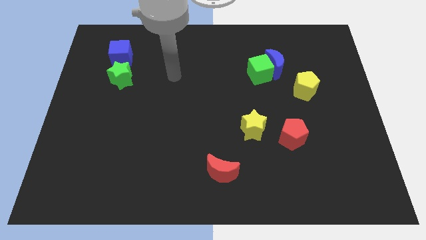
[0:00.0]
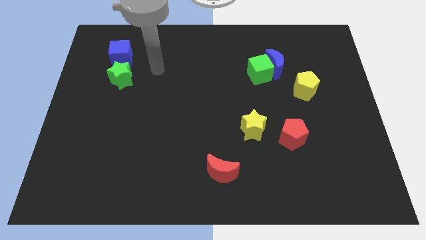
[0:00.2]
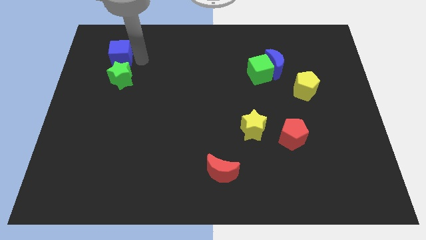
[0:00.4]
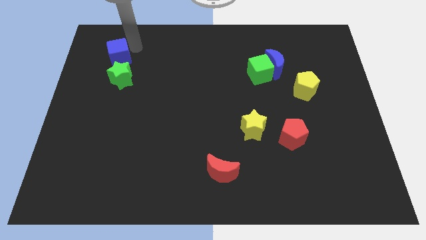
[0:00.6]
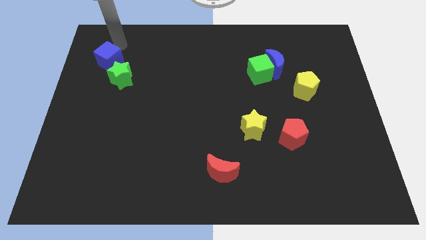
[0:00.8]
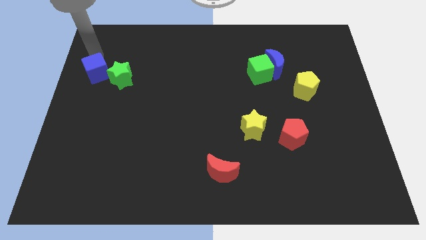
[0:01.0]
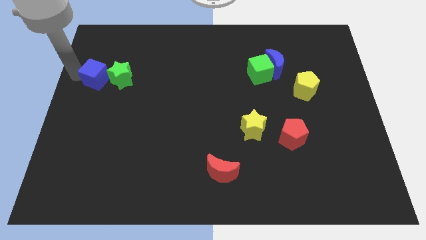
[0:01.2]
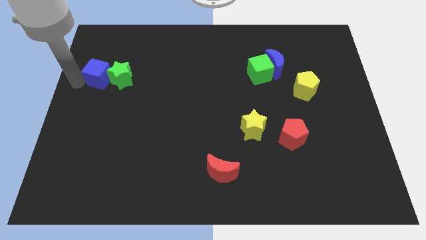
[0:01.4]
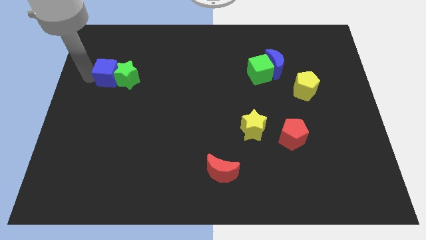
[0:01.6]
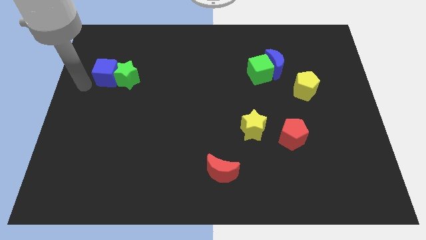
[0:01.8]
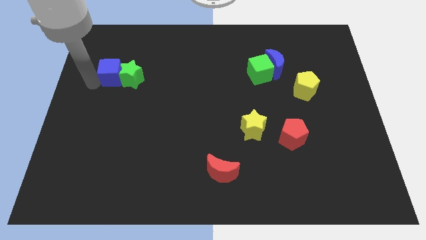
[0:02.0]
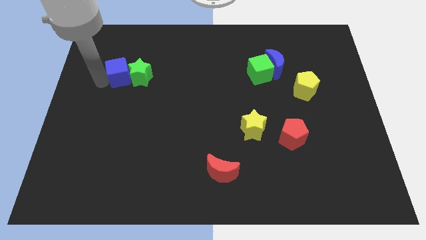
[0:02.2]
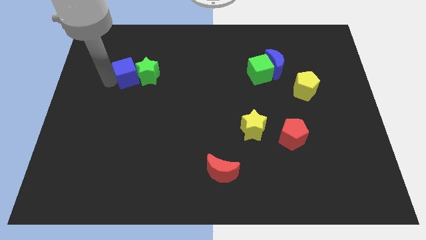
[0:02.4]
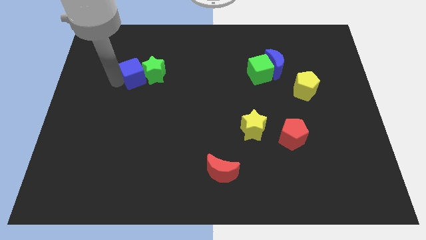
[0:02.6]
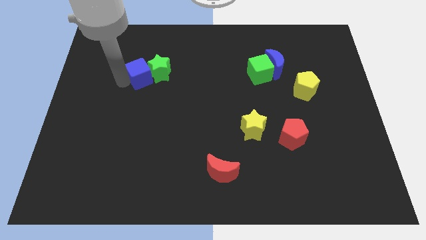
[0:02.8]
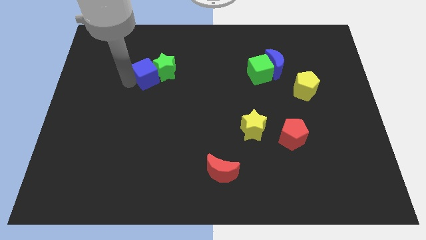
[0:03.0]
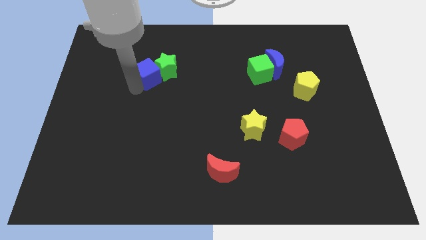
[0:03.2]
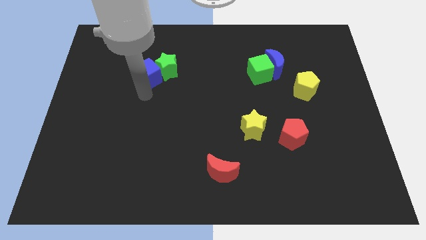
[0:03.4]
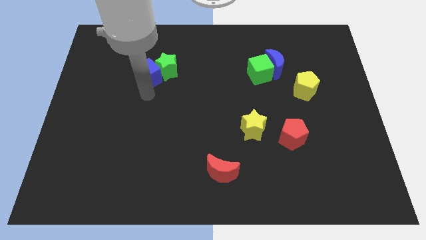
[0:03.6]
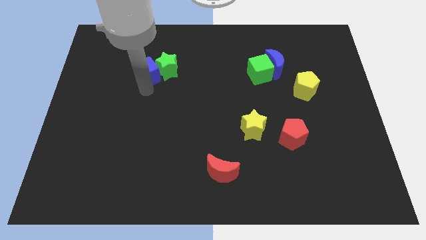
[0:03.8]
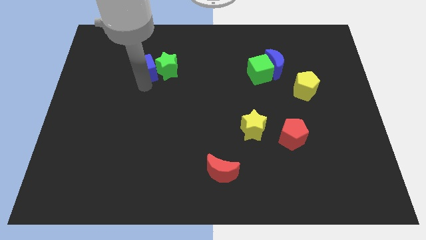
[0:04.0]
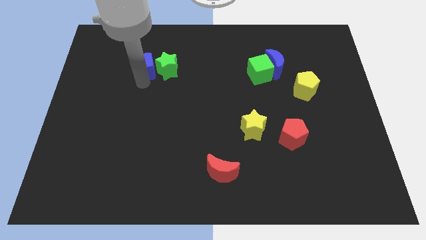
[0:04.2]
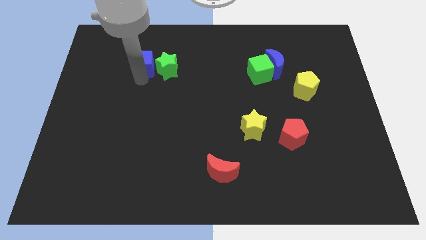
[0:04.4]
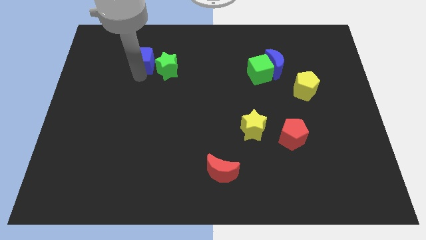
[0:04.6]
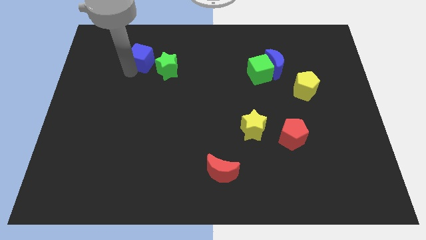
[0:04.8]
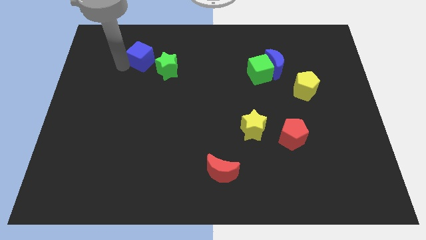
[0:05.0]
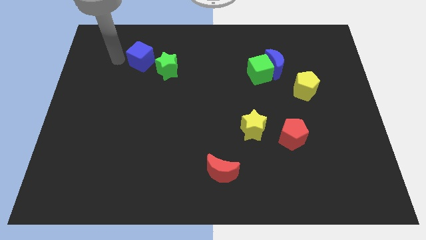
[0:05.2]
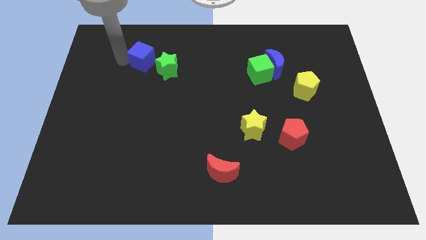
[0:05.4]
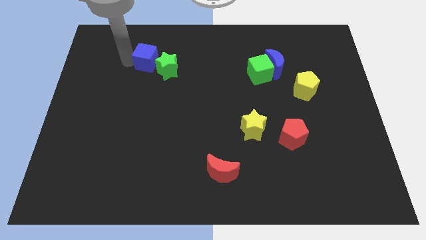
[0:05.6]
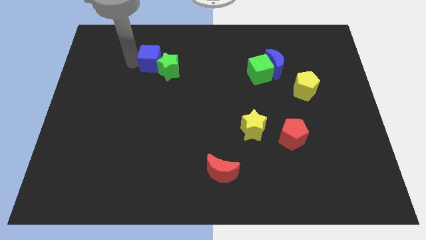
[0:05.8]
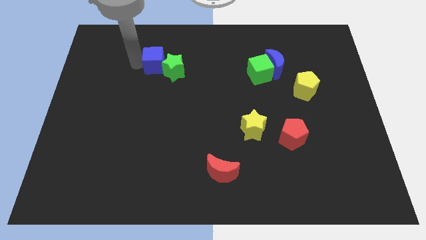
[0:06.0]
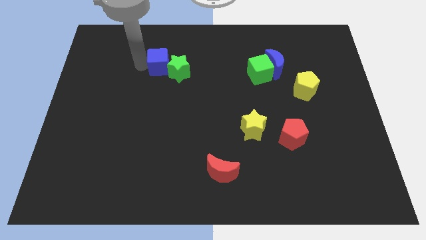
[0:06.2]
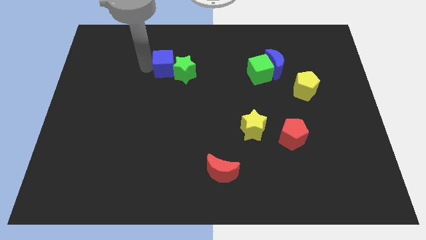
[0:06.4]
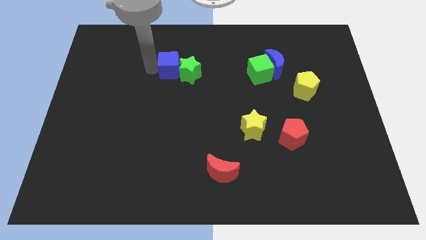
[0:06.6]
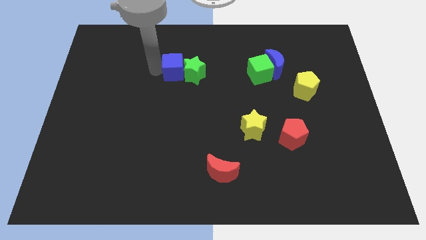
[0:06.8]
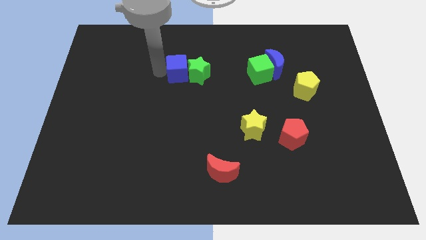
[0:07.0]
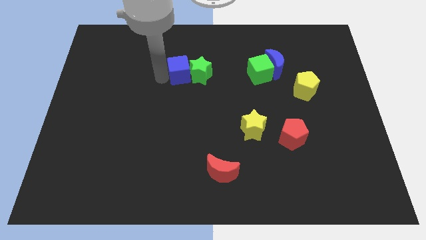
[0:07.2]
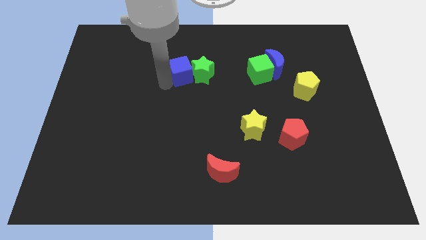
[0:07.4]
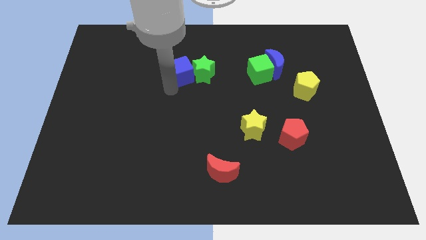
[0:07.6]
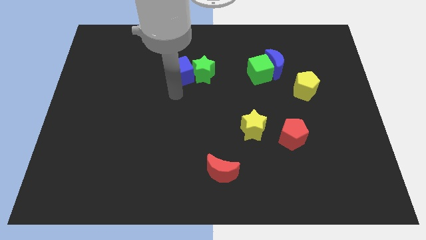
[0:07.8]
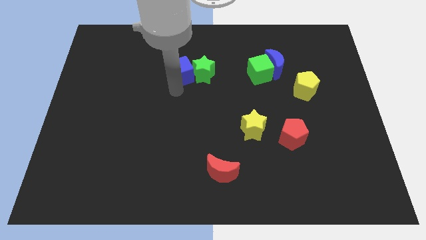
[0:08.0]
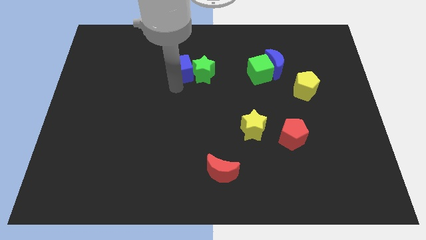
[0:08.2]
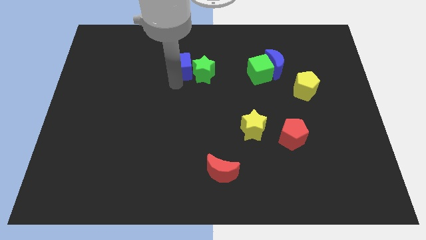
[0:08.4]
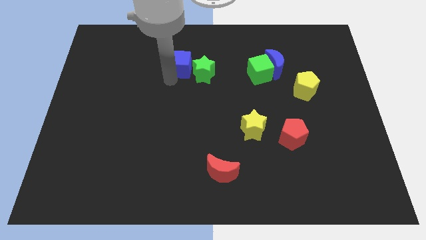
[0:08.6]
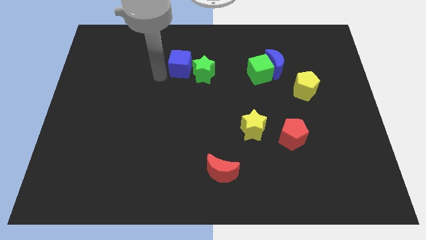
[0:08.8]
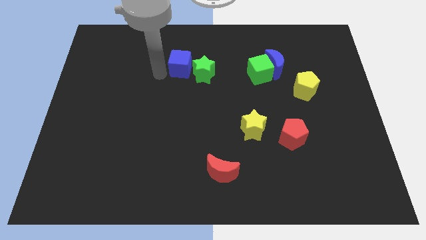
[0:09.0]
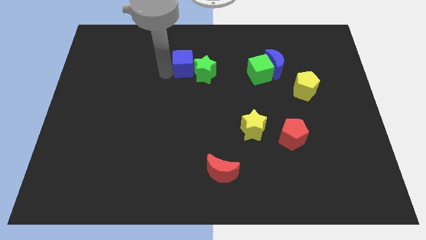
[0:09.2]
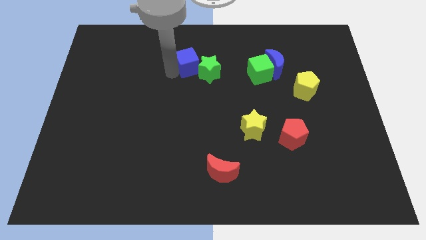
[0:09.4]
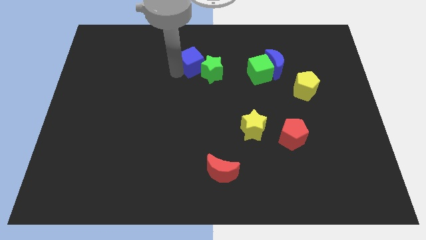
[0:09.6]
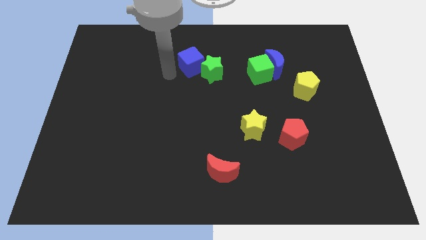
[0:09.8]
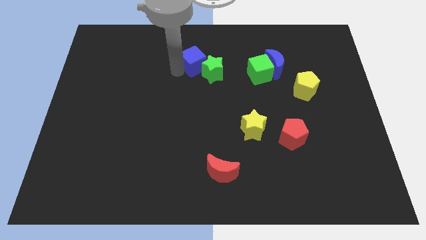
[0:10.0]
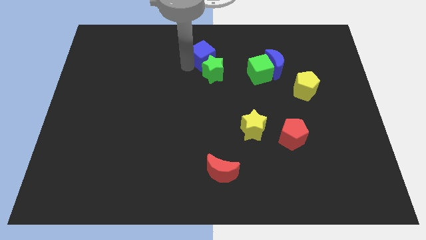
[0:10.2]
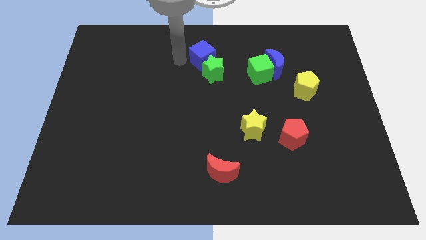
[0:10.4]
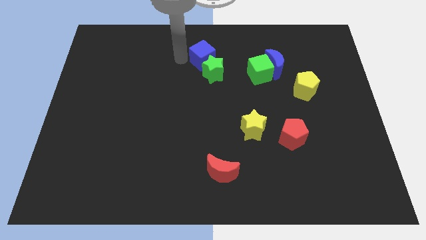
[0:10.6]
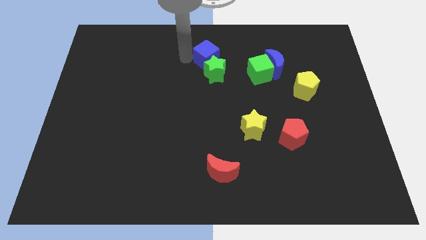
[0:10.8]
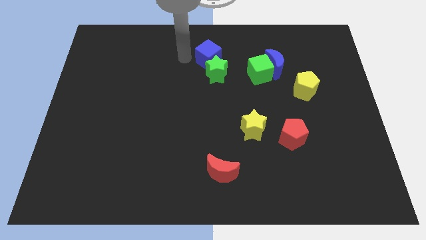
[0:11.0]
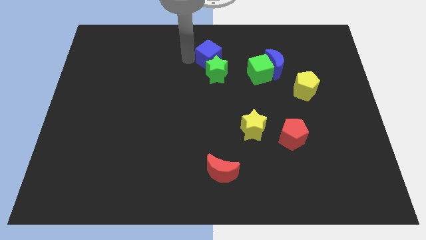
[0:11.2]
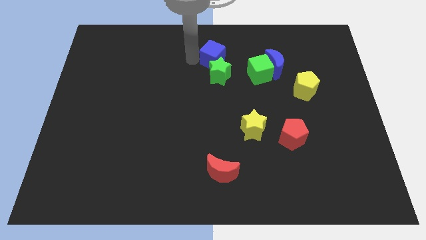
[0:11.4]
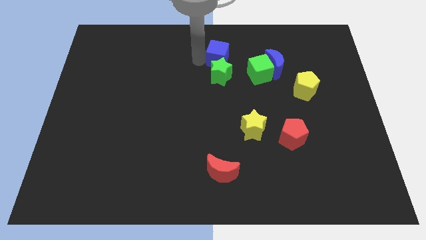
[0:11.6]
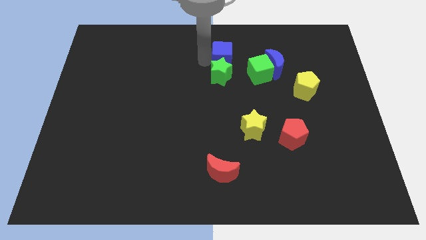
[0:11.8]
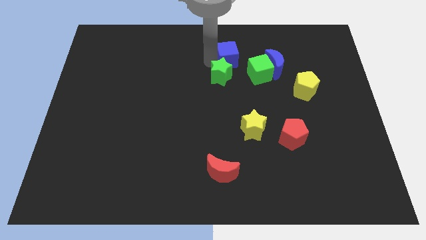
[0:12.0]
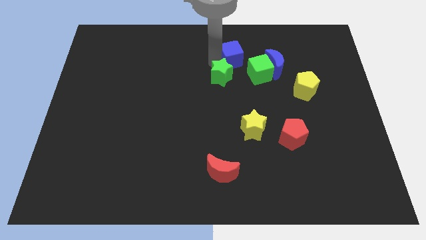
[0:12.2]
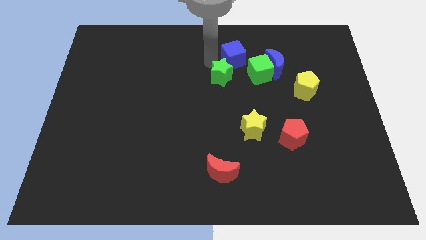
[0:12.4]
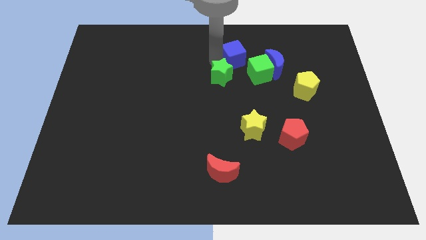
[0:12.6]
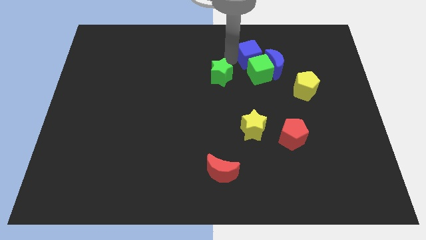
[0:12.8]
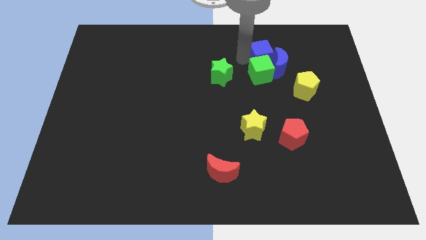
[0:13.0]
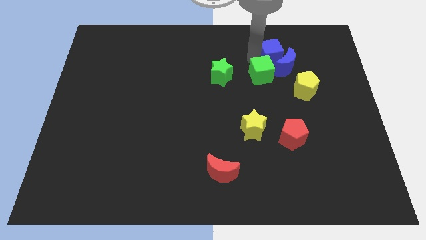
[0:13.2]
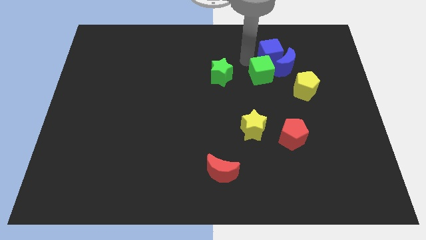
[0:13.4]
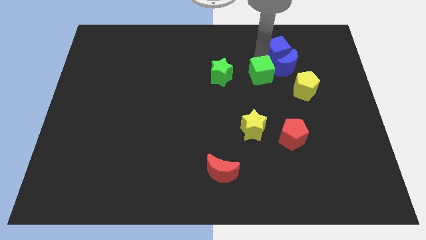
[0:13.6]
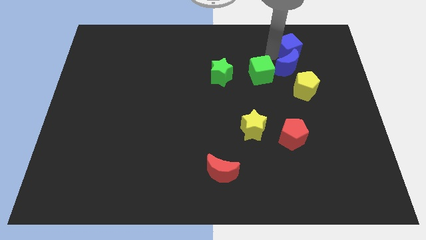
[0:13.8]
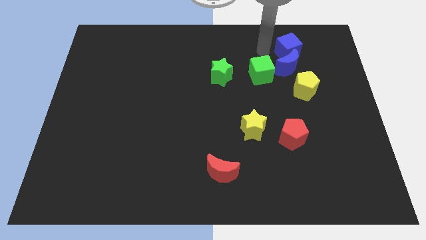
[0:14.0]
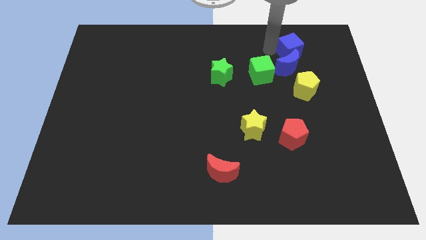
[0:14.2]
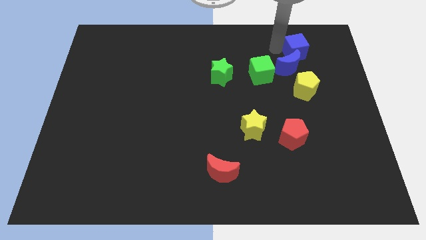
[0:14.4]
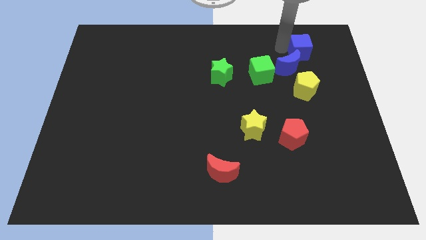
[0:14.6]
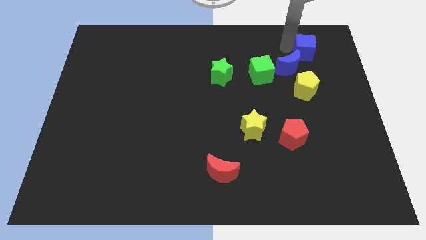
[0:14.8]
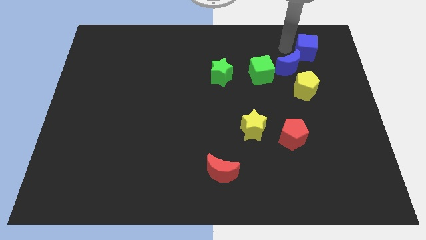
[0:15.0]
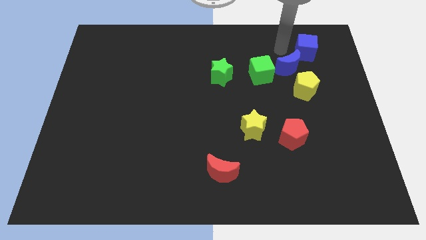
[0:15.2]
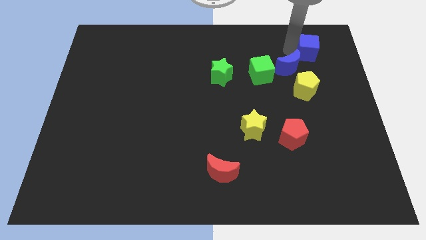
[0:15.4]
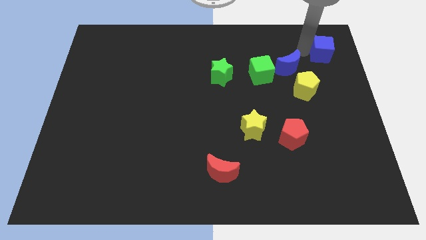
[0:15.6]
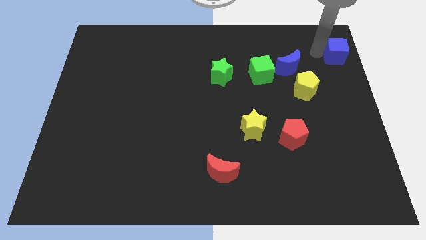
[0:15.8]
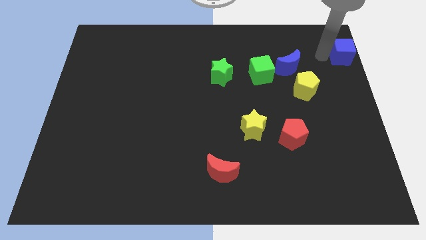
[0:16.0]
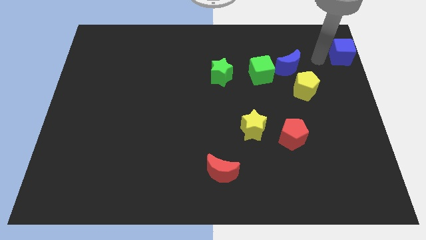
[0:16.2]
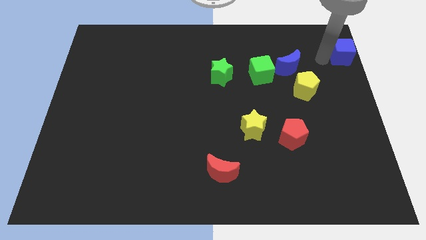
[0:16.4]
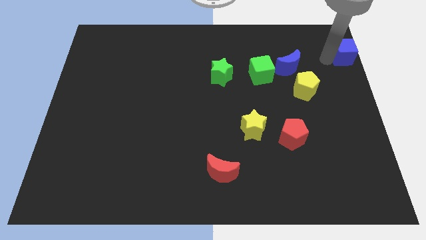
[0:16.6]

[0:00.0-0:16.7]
push the blue cube to the top right corner
